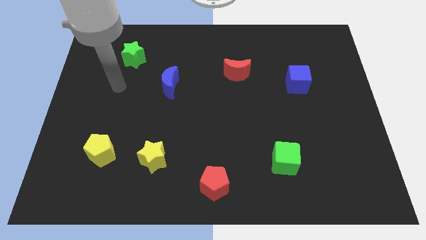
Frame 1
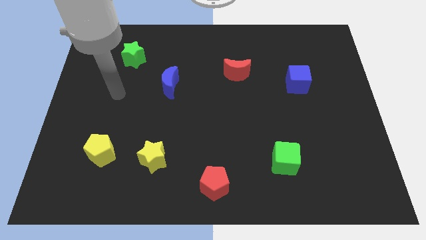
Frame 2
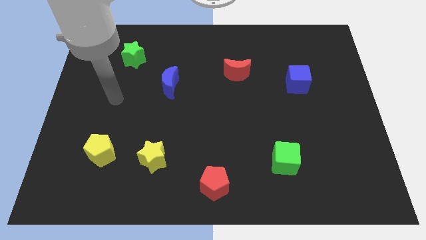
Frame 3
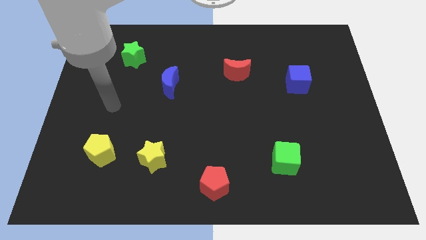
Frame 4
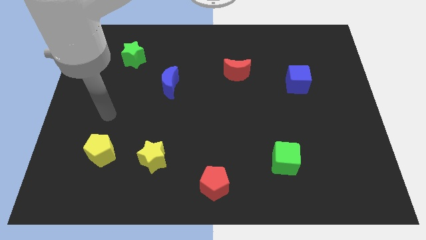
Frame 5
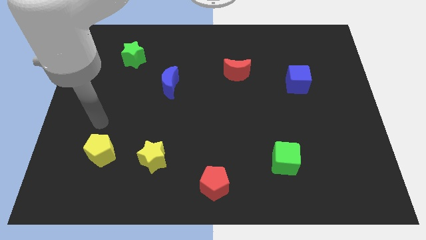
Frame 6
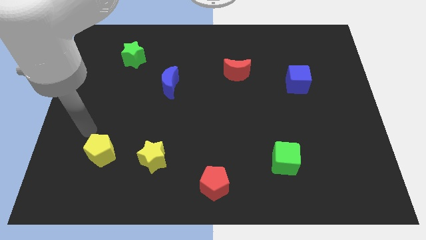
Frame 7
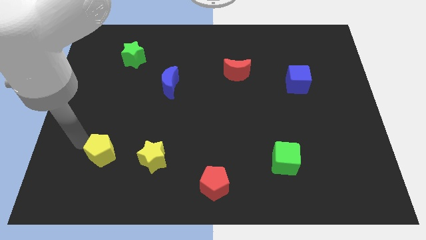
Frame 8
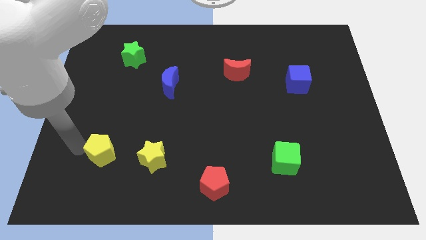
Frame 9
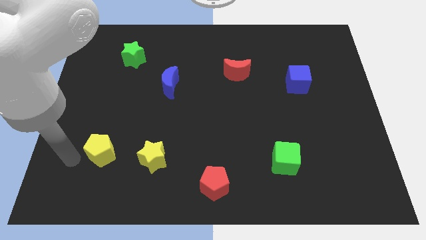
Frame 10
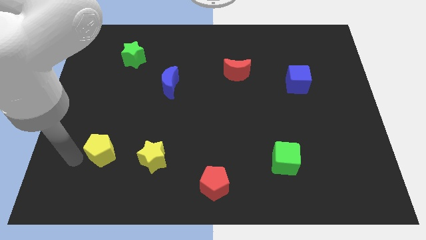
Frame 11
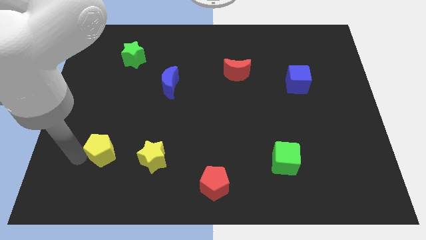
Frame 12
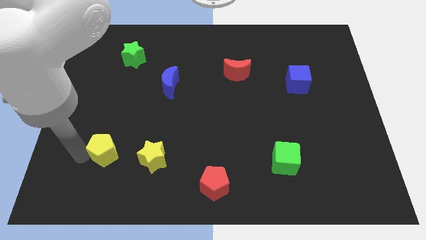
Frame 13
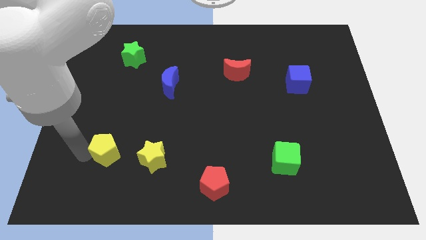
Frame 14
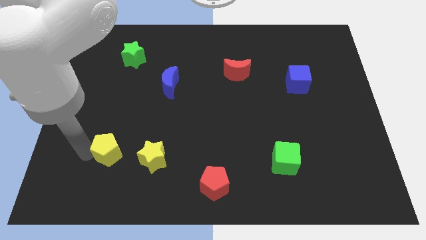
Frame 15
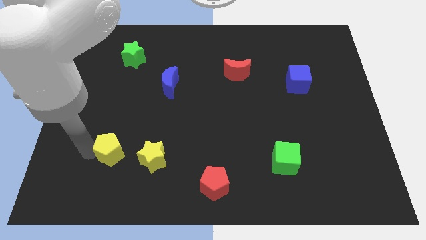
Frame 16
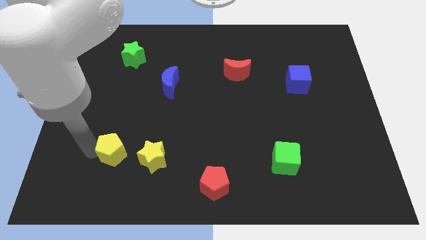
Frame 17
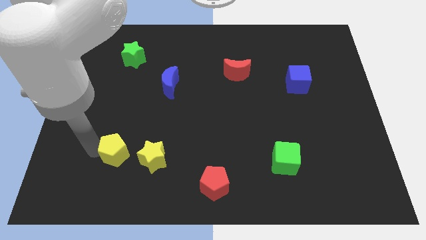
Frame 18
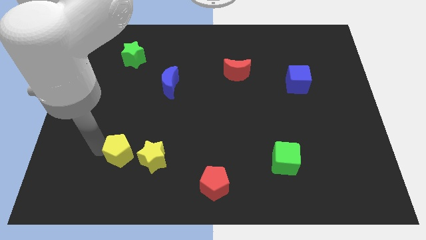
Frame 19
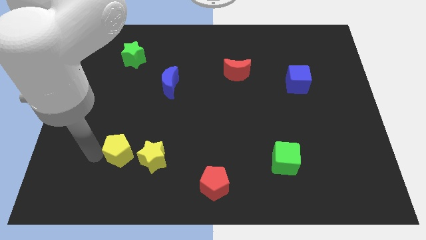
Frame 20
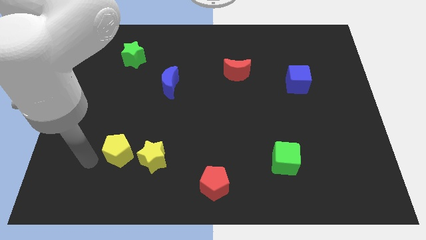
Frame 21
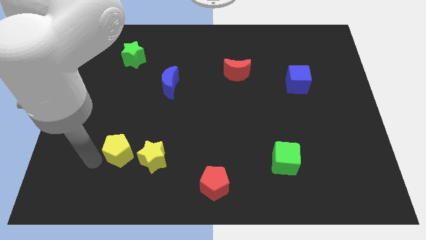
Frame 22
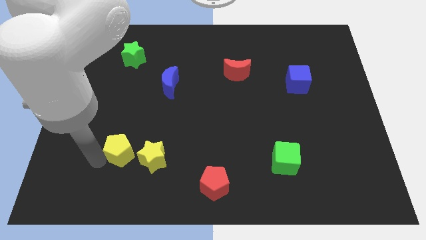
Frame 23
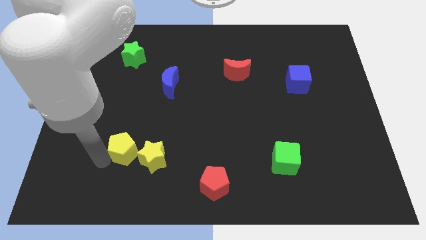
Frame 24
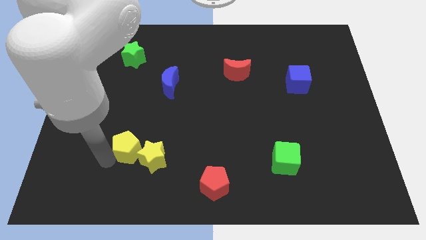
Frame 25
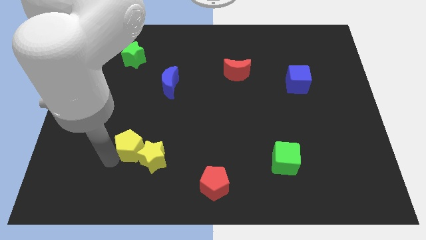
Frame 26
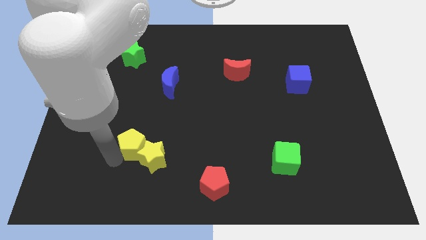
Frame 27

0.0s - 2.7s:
push the yellow pentagon to the right somewhat

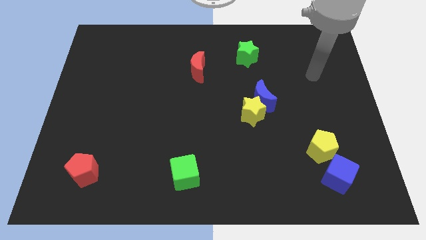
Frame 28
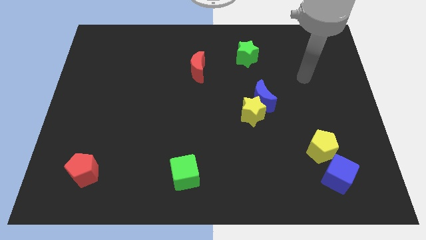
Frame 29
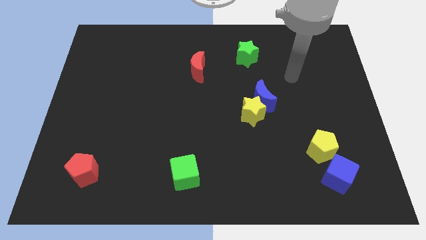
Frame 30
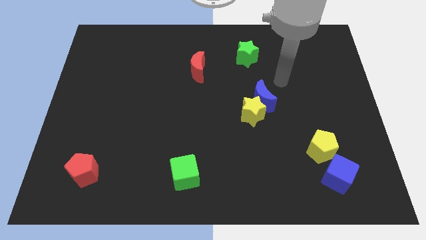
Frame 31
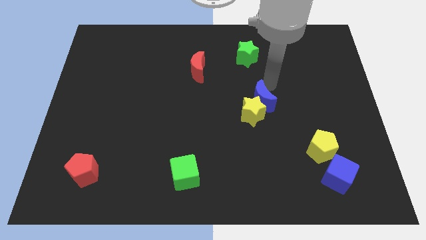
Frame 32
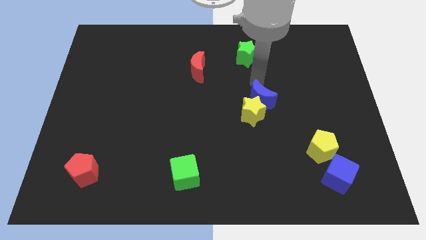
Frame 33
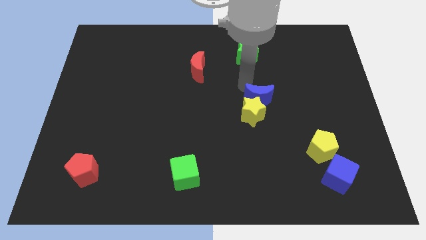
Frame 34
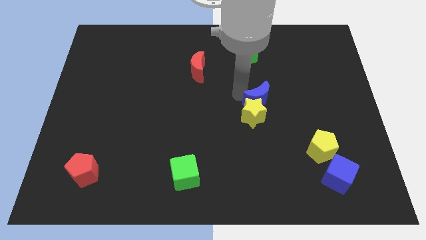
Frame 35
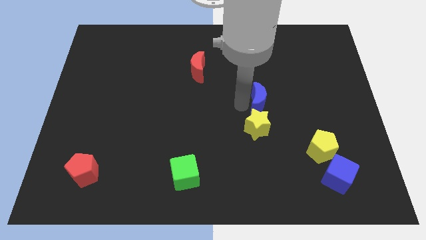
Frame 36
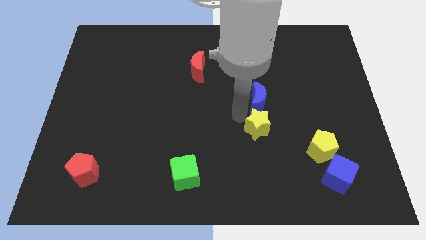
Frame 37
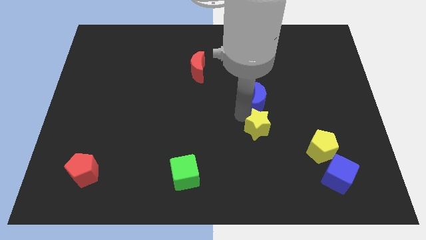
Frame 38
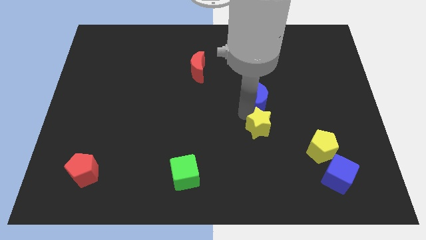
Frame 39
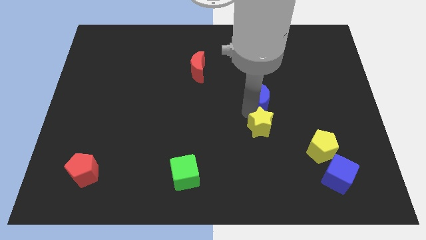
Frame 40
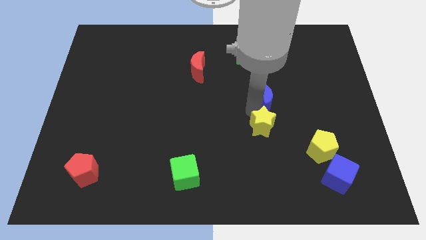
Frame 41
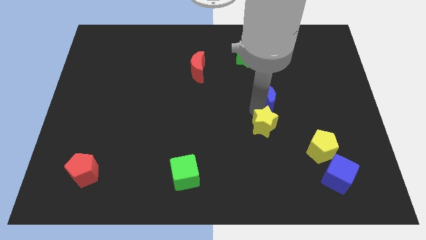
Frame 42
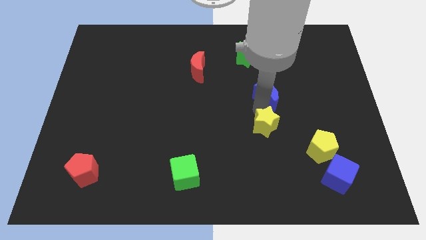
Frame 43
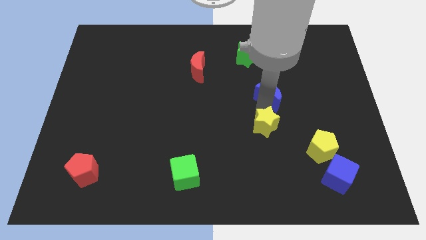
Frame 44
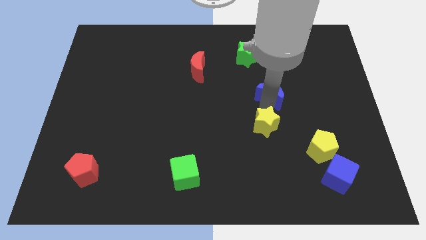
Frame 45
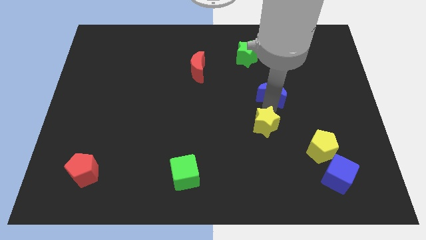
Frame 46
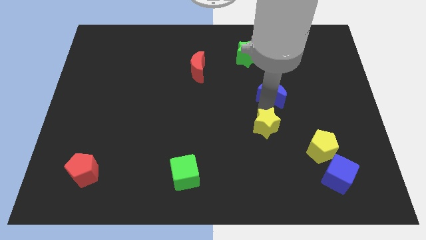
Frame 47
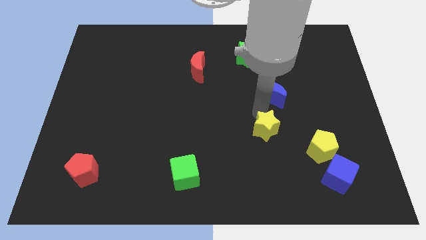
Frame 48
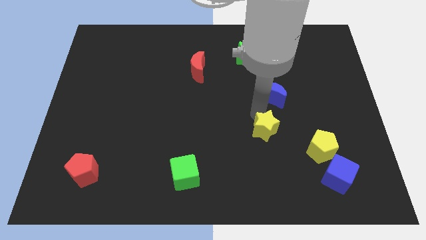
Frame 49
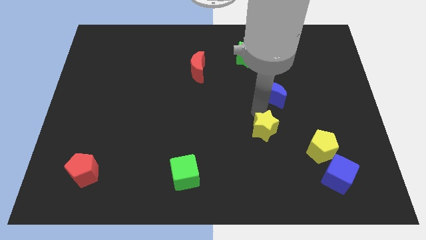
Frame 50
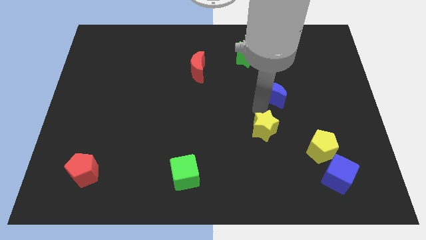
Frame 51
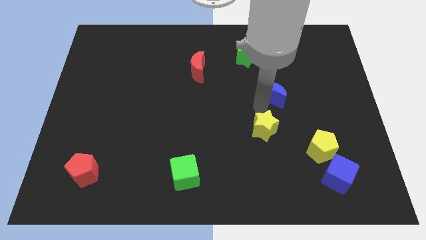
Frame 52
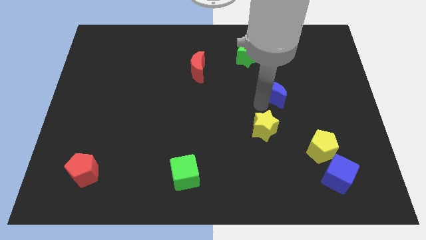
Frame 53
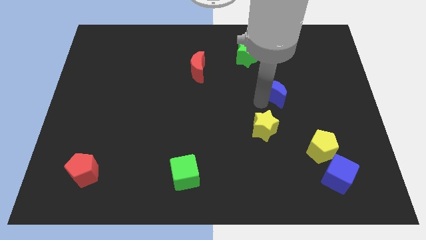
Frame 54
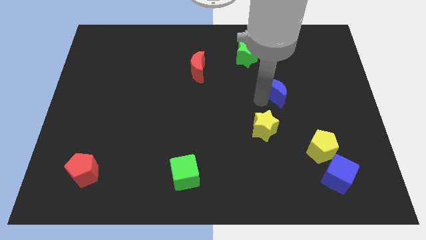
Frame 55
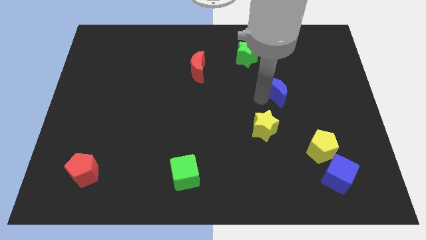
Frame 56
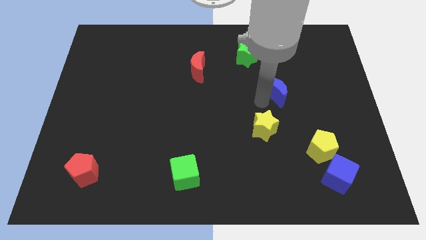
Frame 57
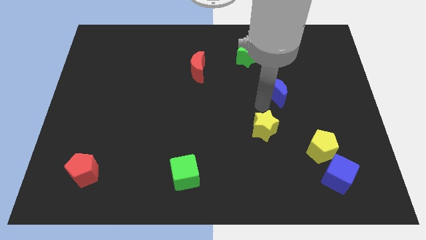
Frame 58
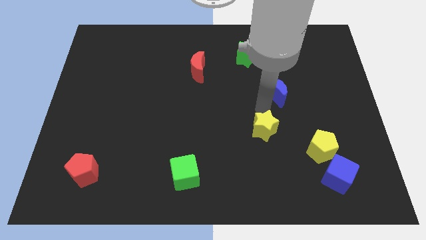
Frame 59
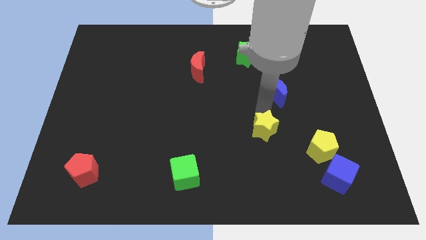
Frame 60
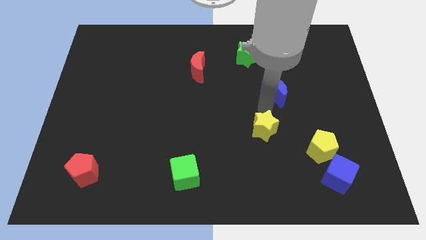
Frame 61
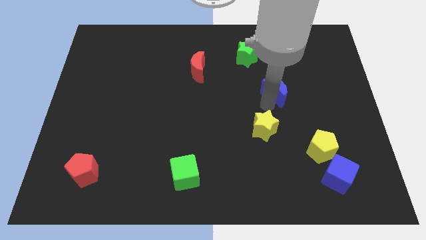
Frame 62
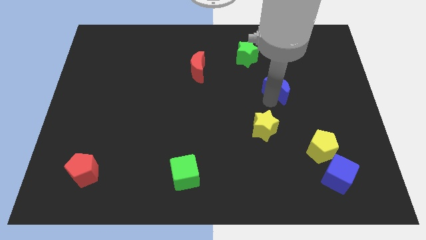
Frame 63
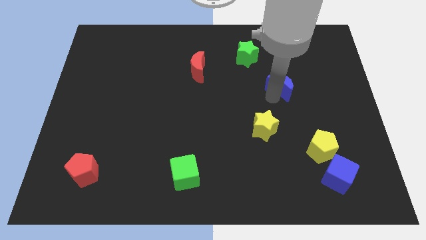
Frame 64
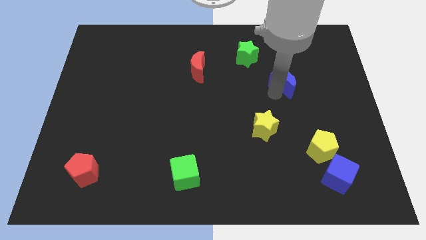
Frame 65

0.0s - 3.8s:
slide the blue moon a little upwards and to the right diagonally

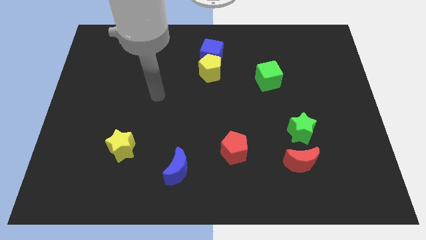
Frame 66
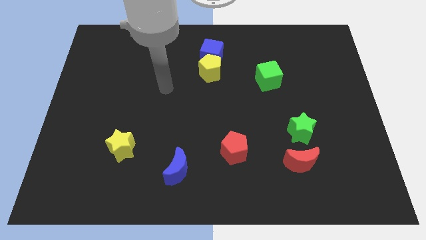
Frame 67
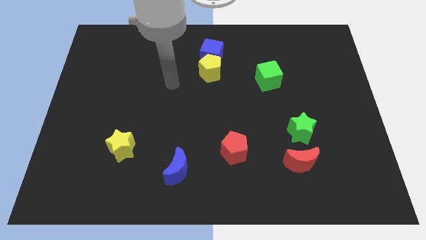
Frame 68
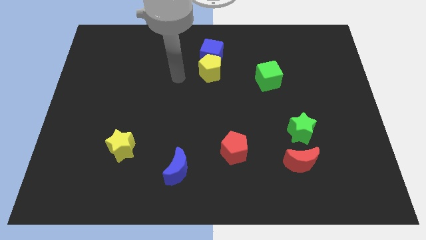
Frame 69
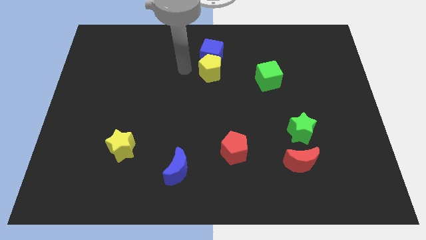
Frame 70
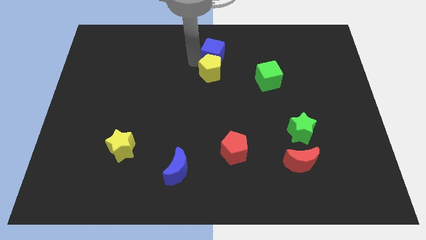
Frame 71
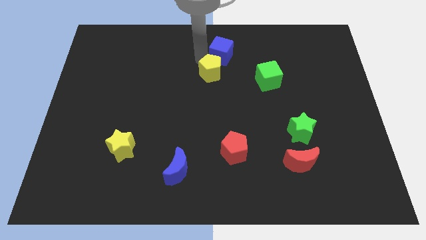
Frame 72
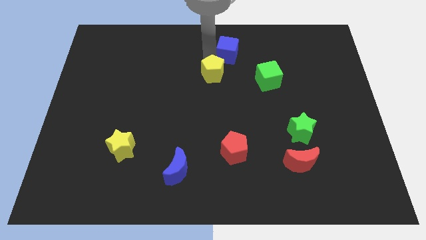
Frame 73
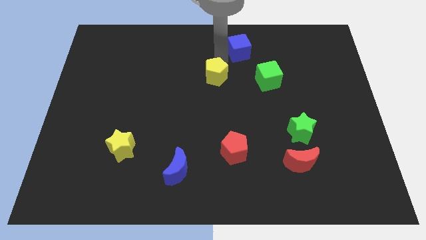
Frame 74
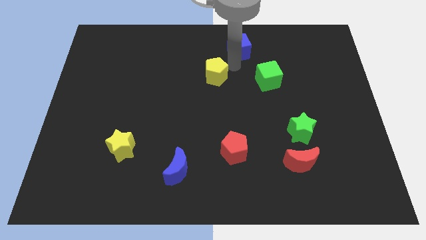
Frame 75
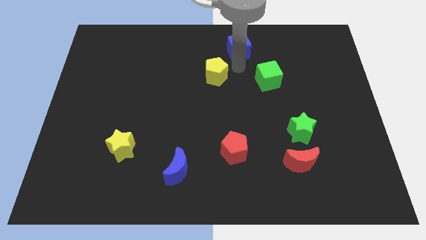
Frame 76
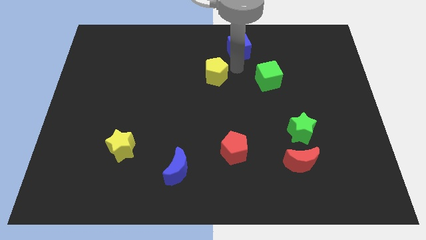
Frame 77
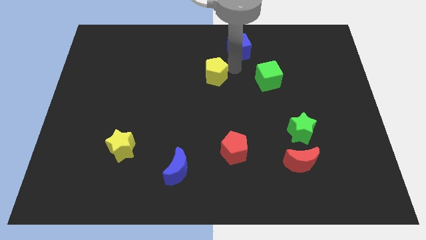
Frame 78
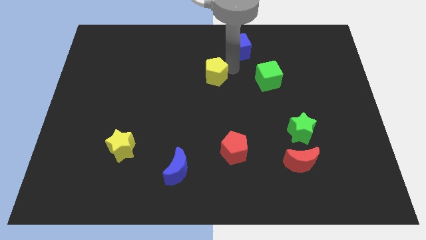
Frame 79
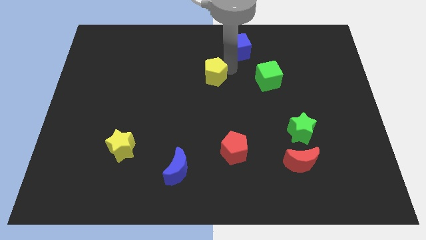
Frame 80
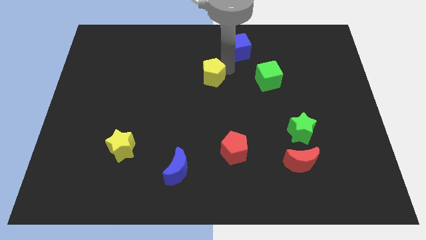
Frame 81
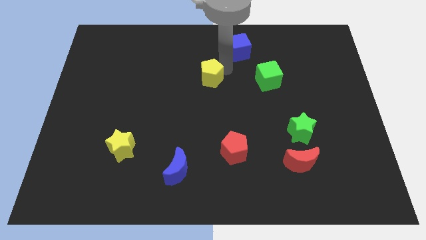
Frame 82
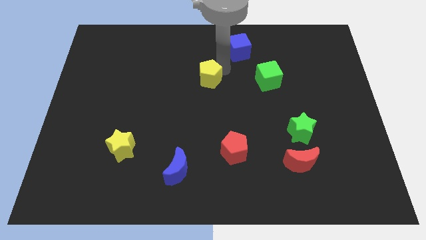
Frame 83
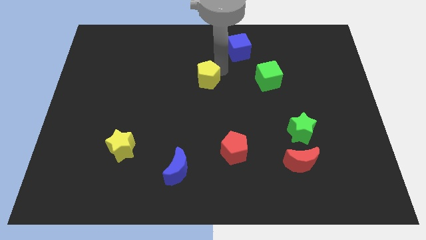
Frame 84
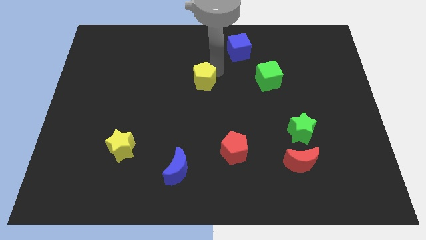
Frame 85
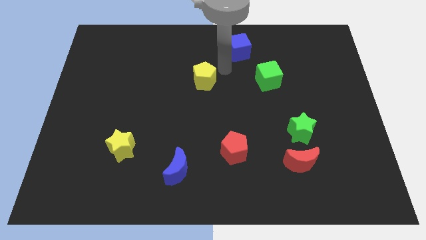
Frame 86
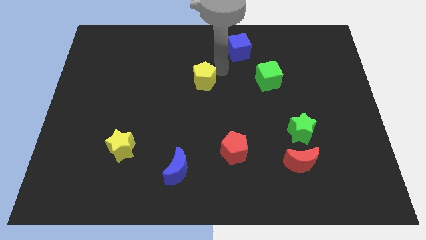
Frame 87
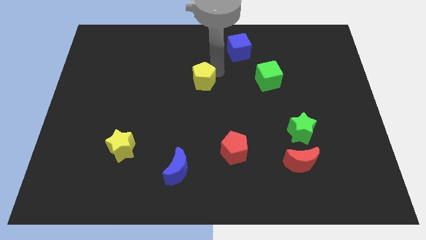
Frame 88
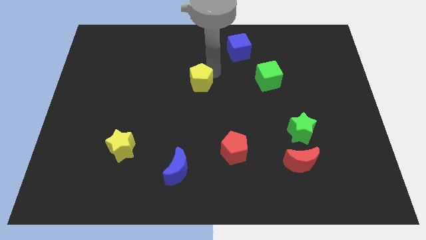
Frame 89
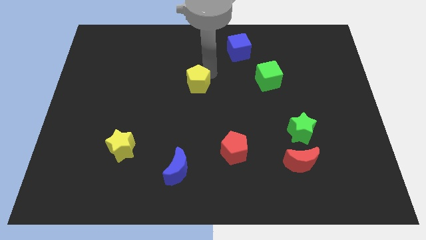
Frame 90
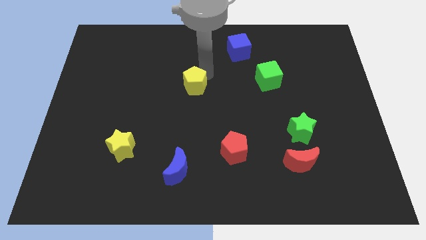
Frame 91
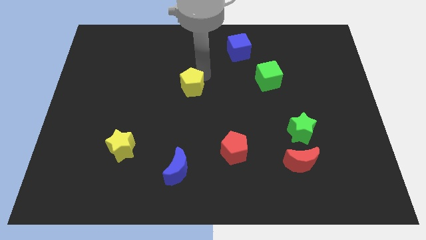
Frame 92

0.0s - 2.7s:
push the yellow pentagon down and left diagonally a bit
